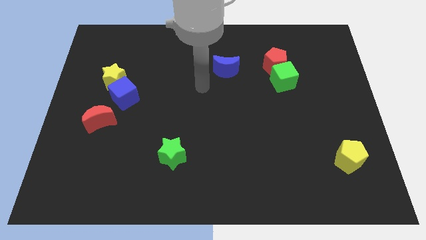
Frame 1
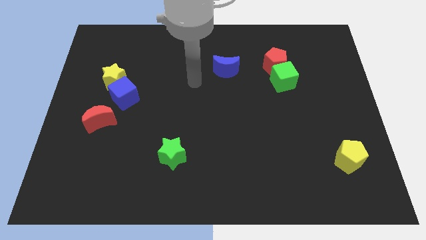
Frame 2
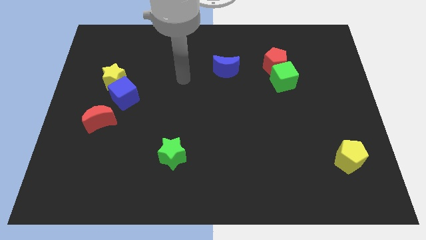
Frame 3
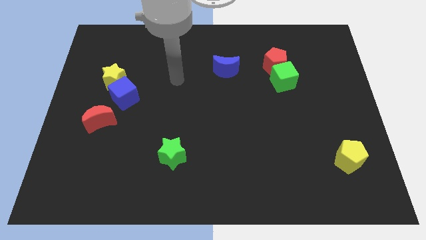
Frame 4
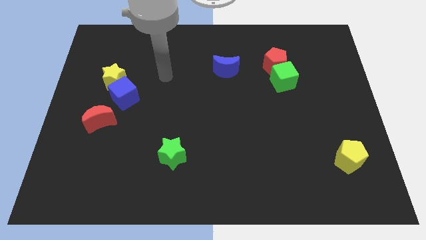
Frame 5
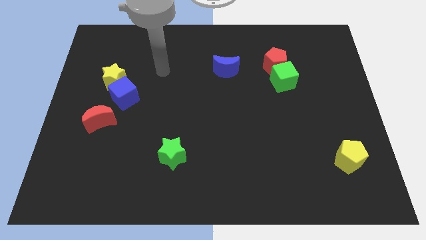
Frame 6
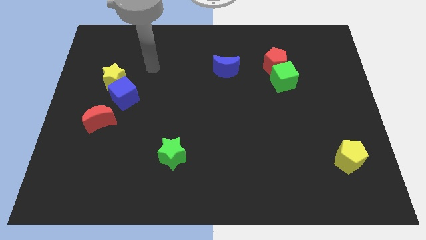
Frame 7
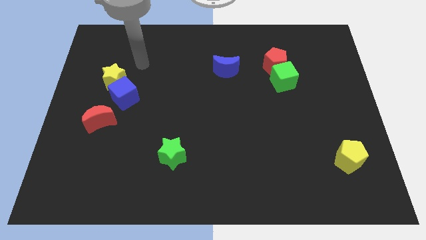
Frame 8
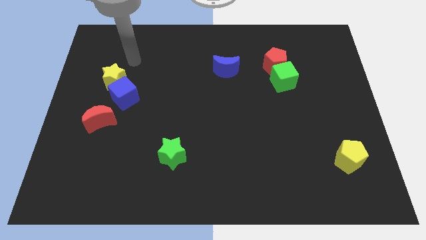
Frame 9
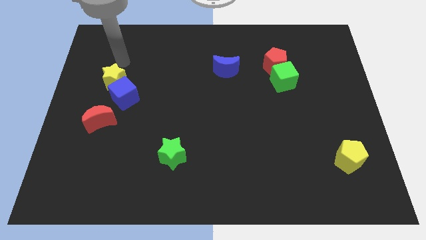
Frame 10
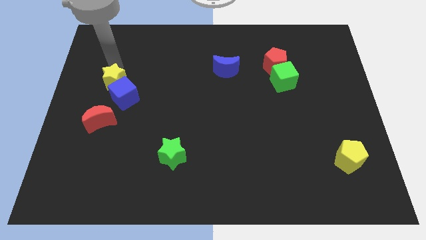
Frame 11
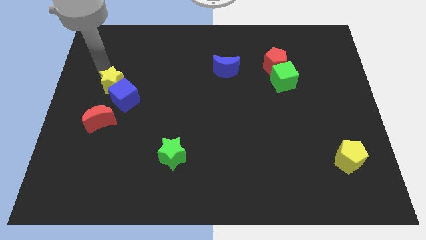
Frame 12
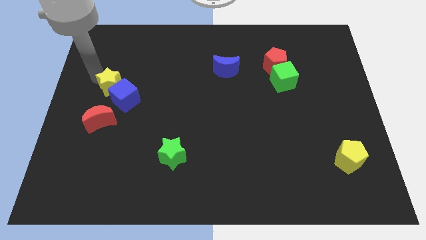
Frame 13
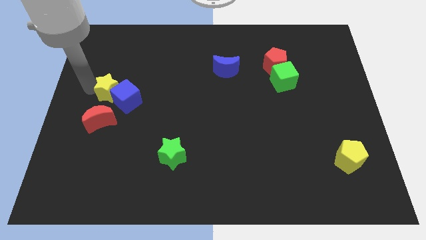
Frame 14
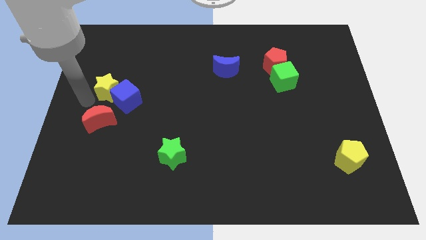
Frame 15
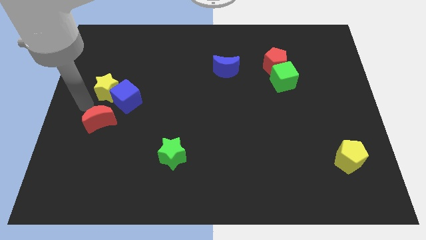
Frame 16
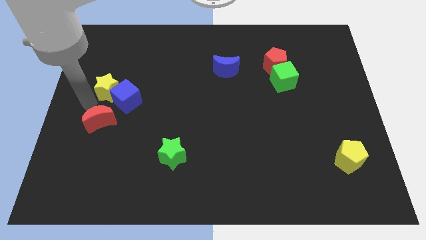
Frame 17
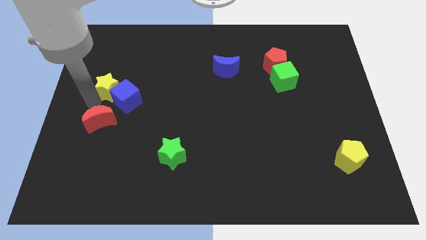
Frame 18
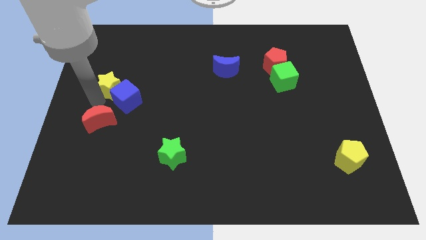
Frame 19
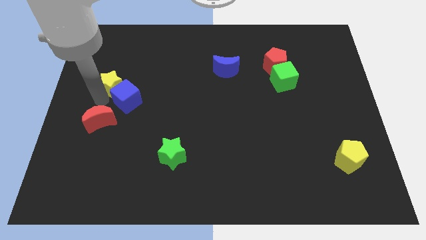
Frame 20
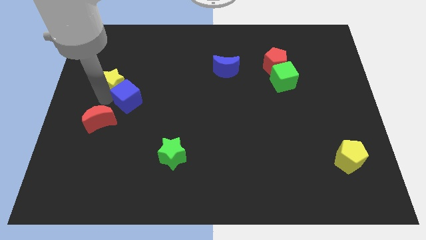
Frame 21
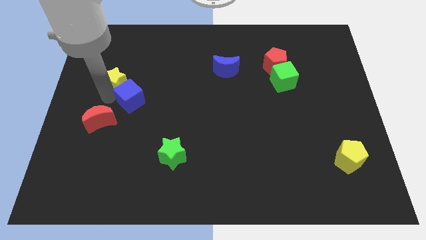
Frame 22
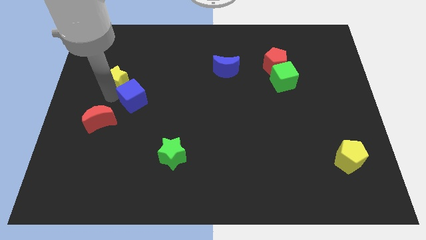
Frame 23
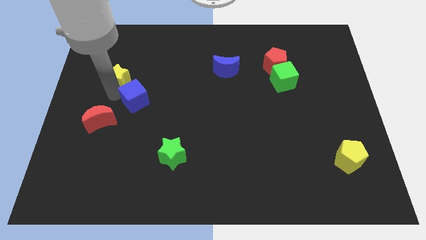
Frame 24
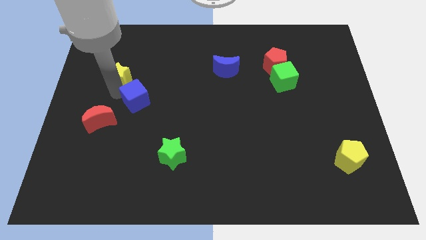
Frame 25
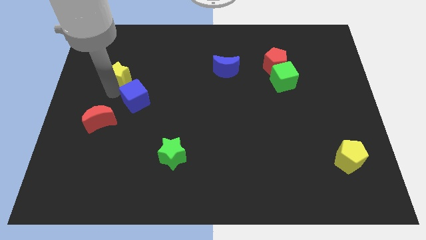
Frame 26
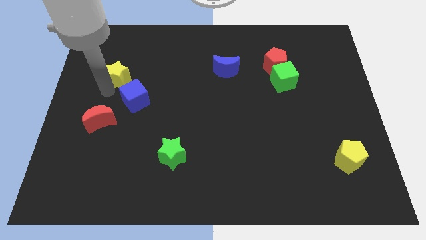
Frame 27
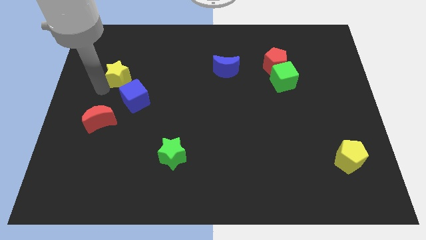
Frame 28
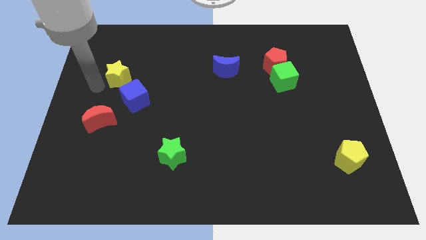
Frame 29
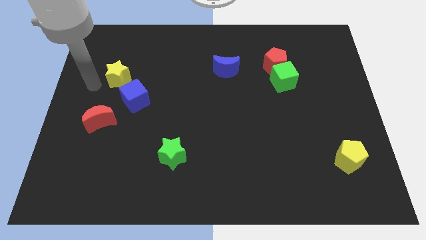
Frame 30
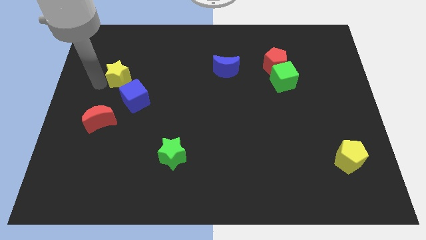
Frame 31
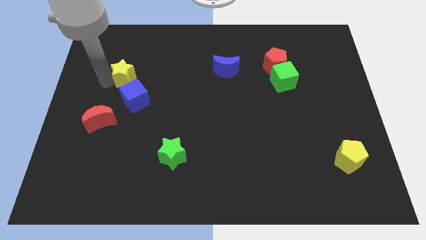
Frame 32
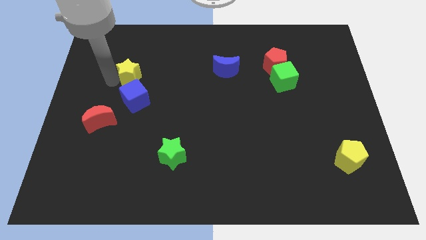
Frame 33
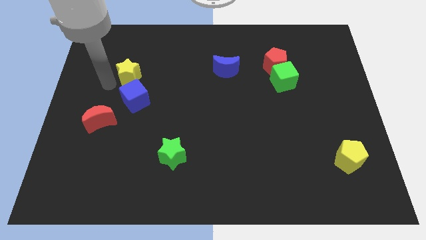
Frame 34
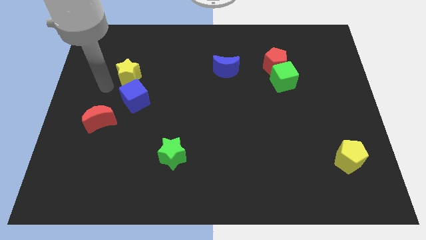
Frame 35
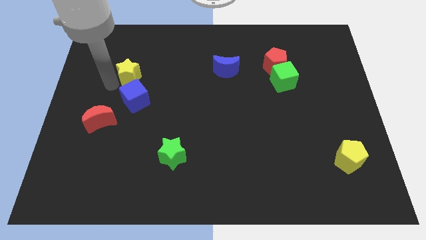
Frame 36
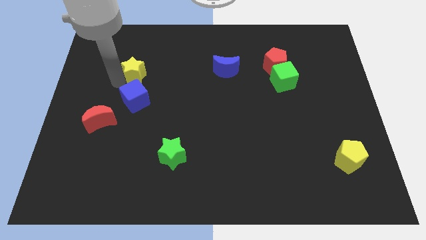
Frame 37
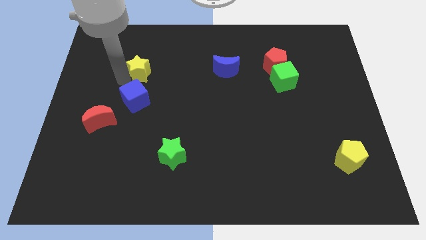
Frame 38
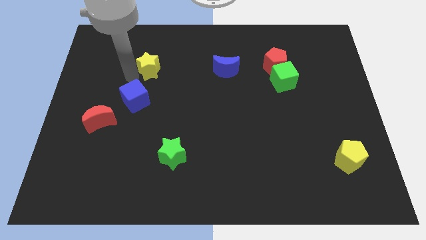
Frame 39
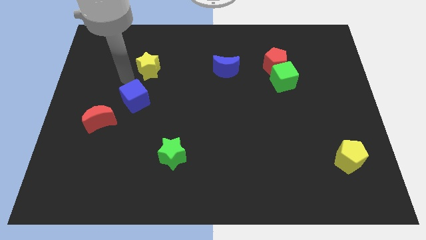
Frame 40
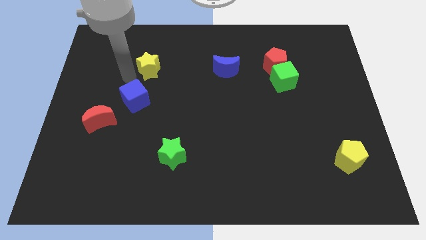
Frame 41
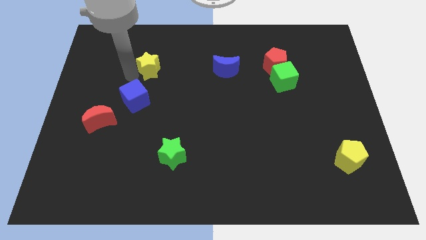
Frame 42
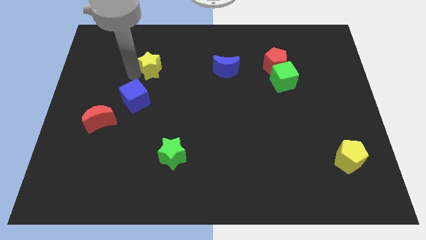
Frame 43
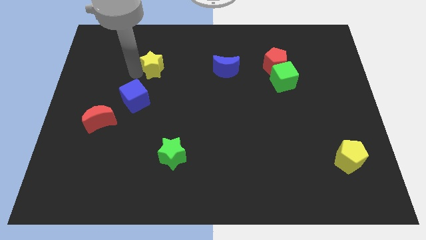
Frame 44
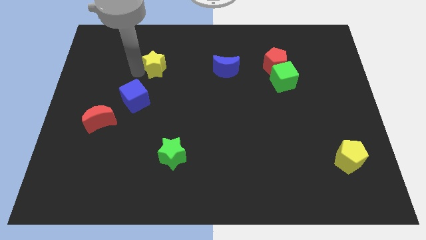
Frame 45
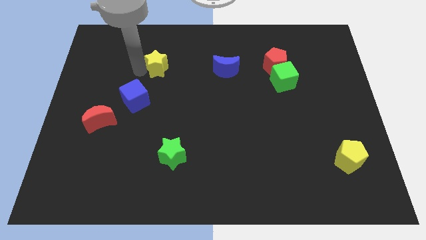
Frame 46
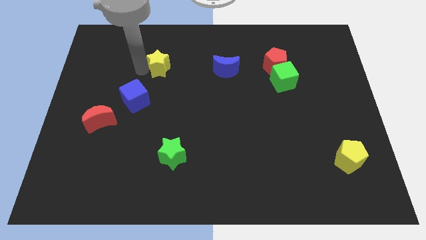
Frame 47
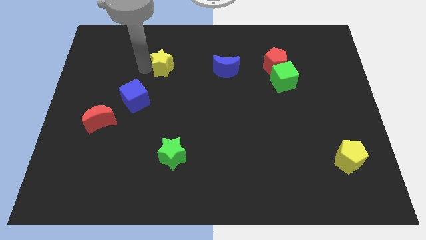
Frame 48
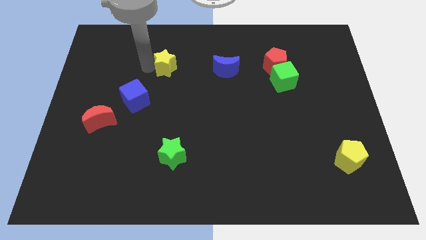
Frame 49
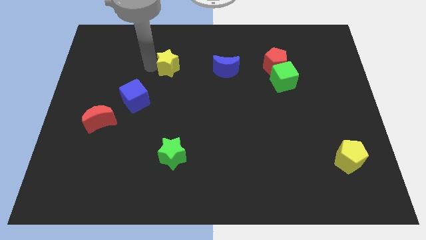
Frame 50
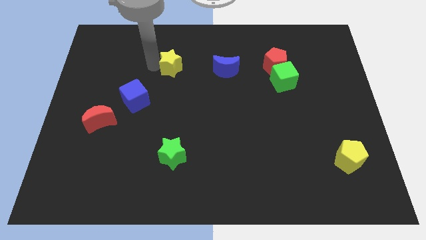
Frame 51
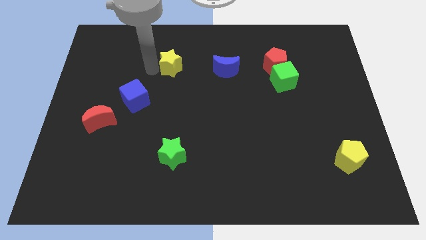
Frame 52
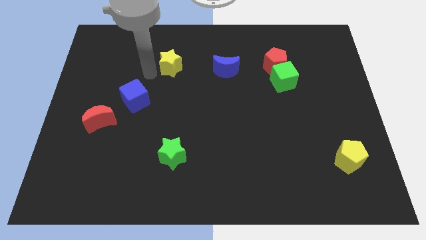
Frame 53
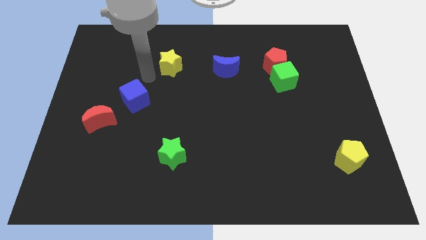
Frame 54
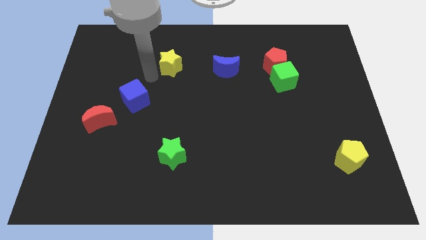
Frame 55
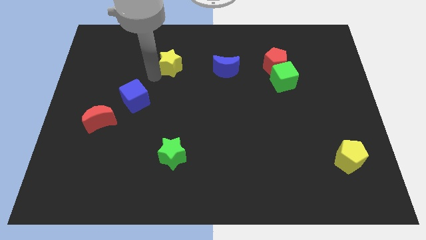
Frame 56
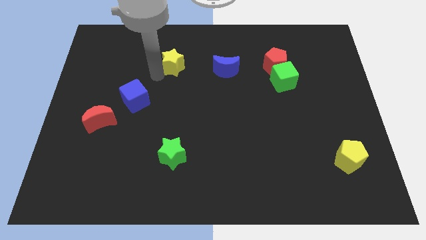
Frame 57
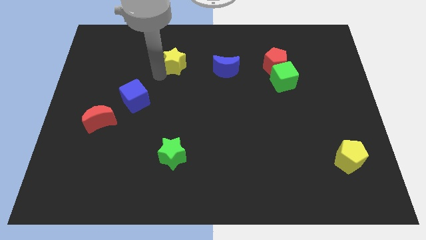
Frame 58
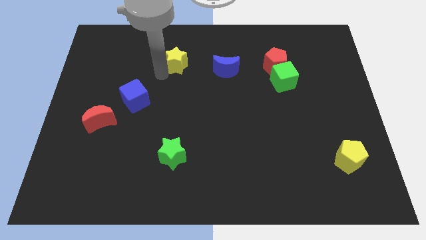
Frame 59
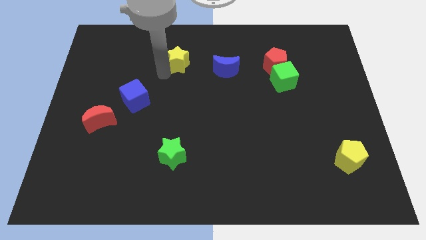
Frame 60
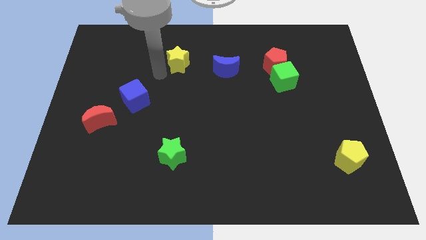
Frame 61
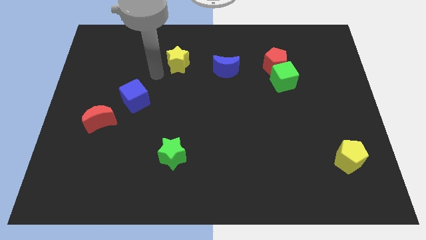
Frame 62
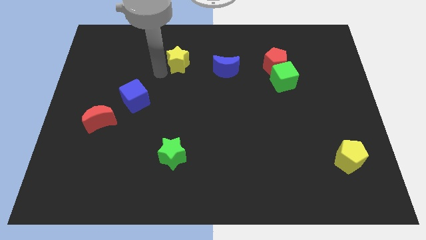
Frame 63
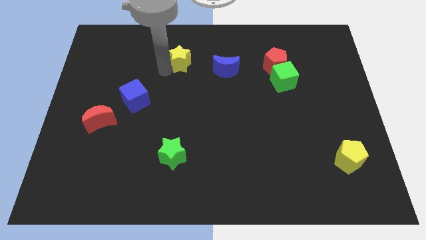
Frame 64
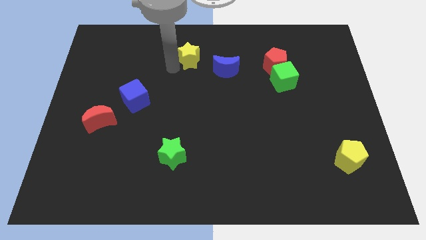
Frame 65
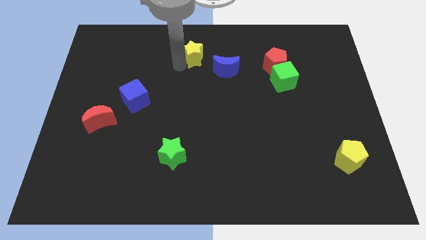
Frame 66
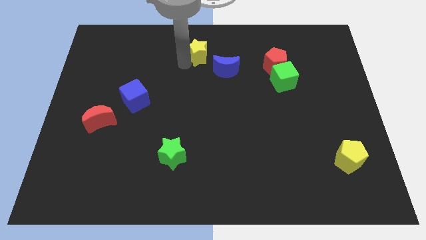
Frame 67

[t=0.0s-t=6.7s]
put the yellow star to the top

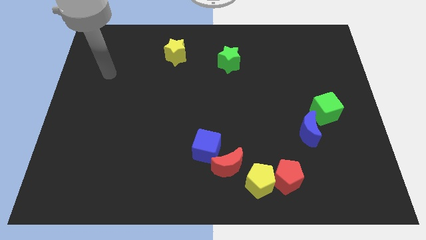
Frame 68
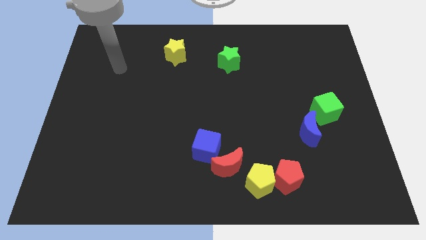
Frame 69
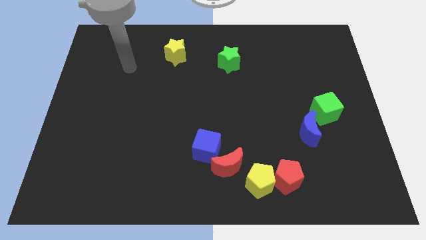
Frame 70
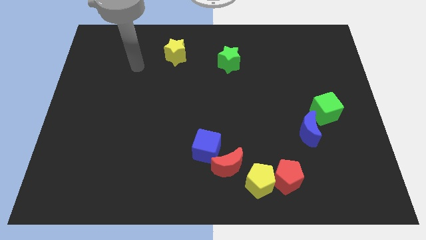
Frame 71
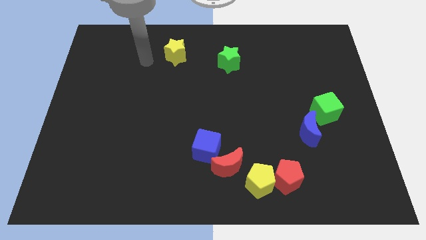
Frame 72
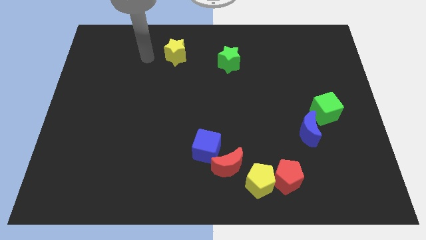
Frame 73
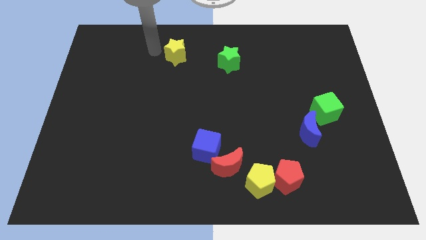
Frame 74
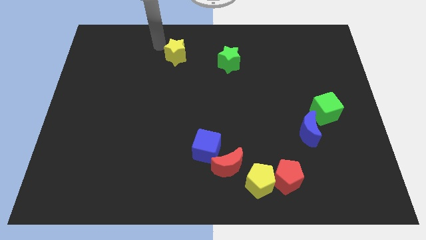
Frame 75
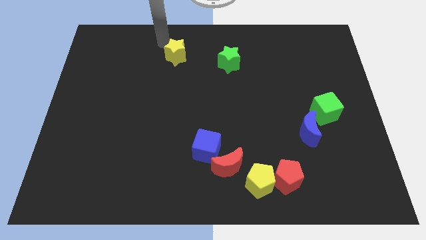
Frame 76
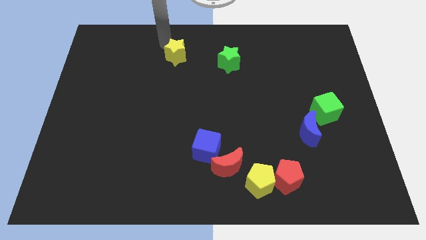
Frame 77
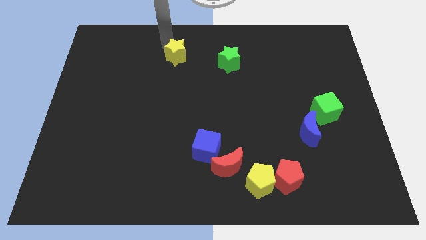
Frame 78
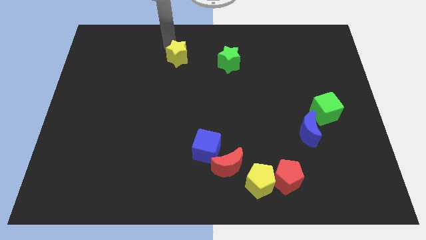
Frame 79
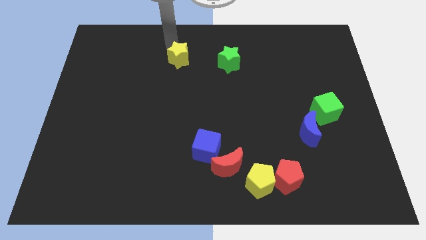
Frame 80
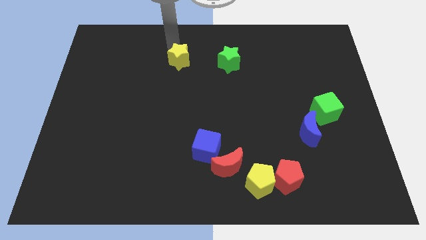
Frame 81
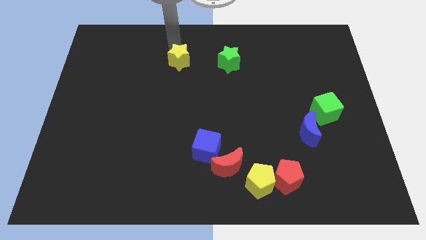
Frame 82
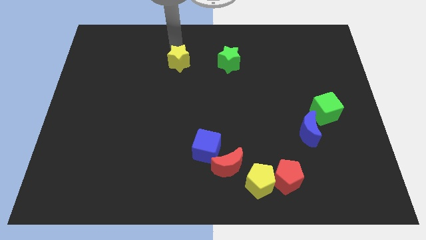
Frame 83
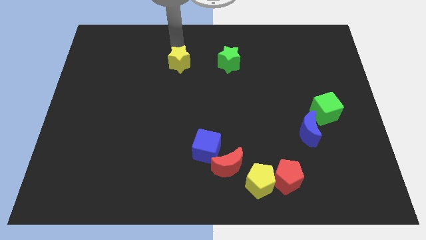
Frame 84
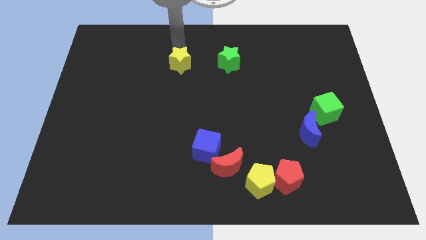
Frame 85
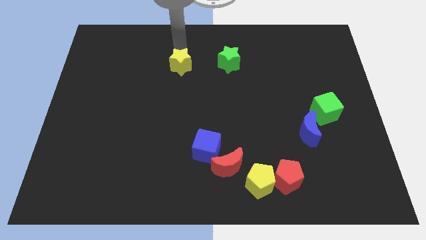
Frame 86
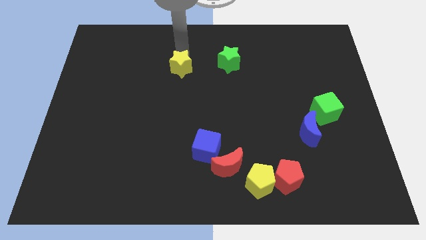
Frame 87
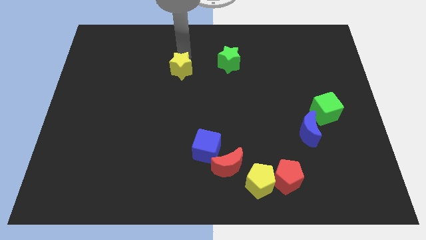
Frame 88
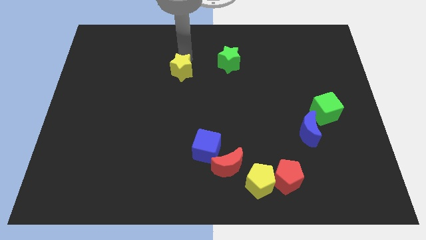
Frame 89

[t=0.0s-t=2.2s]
move the yellow star to the center
